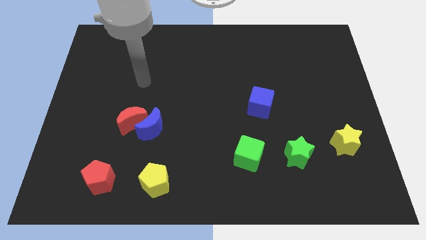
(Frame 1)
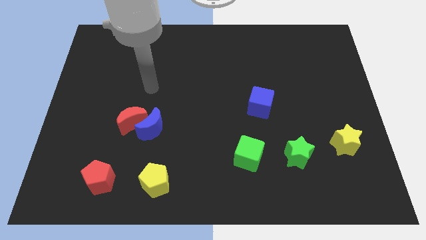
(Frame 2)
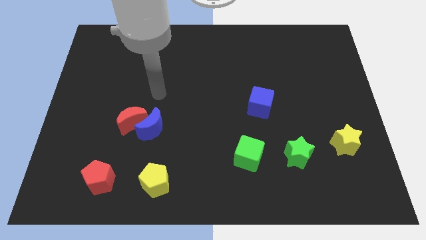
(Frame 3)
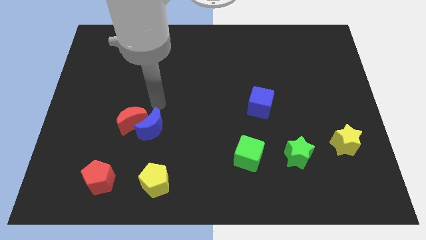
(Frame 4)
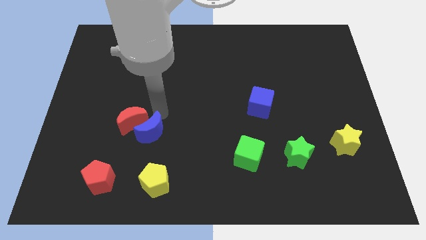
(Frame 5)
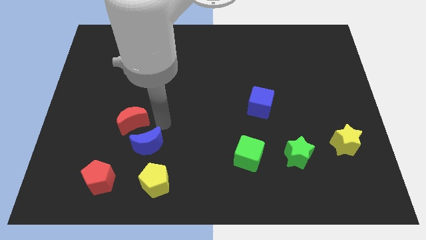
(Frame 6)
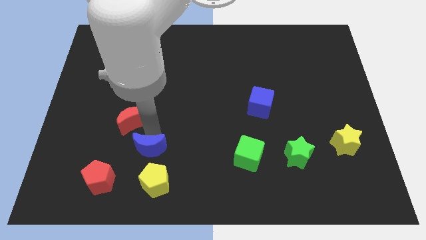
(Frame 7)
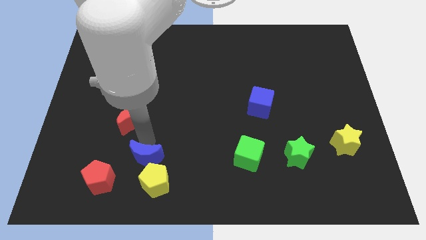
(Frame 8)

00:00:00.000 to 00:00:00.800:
move the red moon away from the blue moon

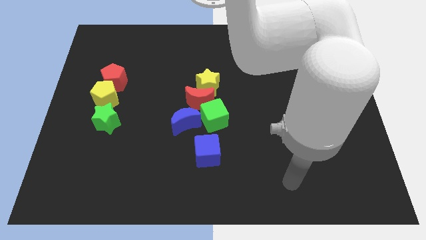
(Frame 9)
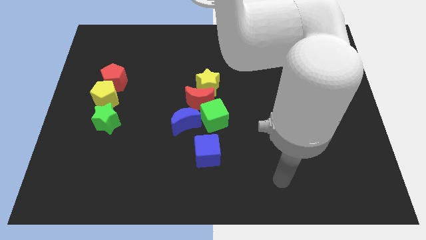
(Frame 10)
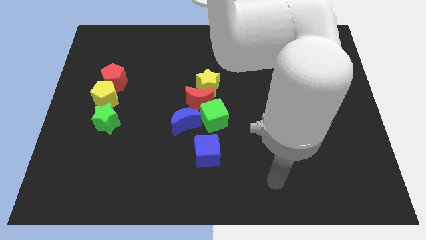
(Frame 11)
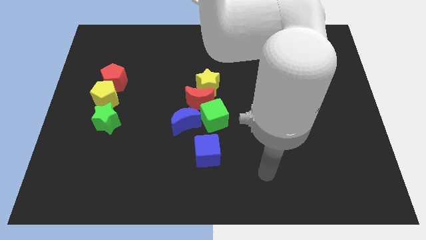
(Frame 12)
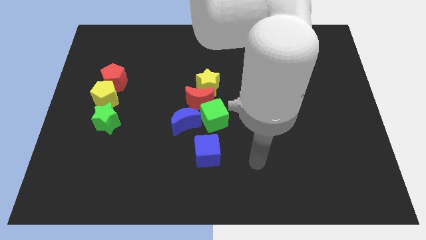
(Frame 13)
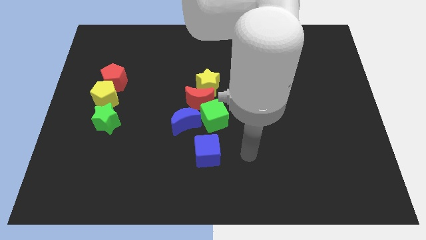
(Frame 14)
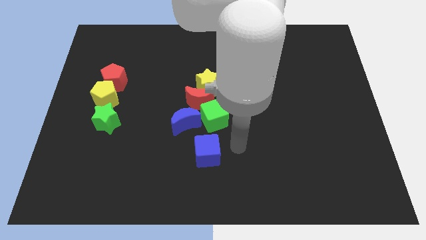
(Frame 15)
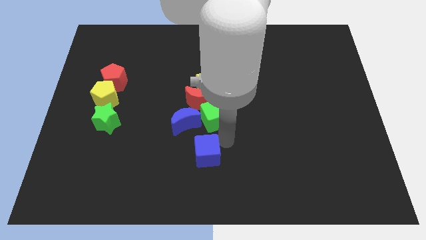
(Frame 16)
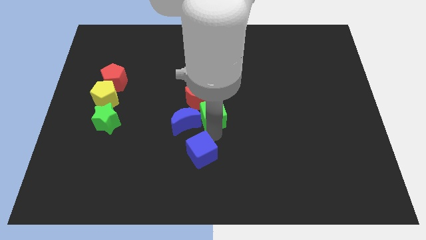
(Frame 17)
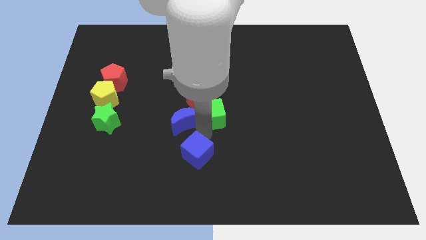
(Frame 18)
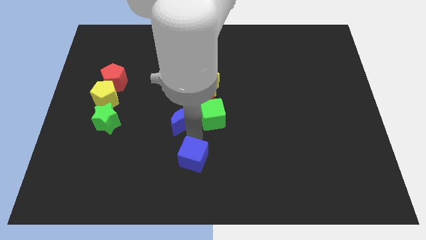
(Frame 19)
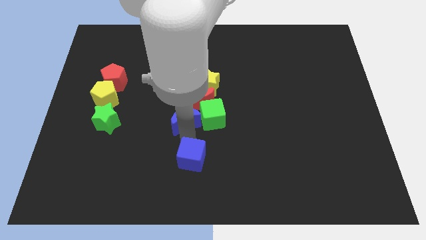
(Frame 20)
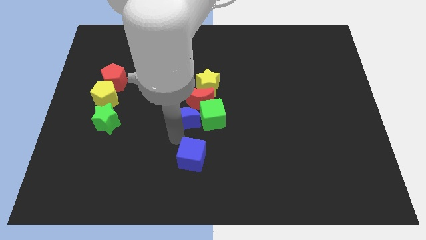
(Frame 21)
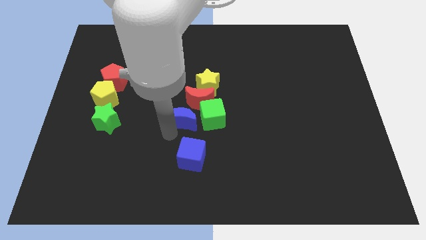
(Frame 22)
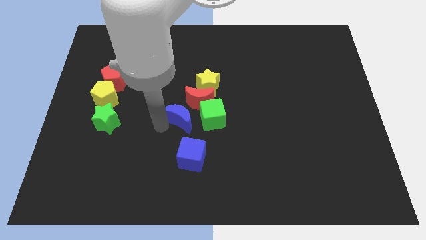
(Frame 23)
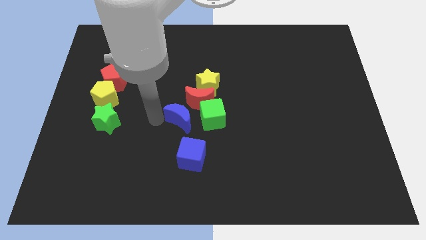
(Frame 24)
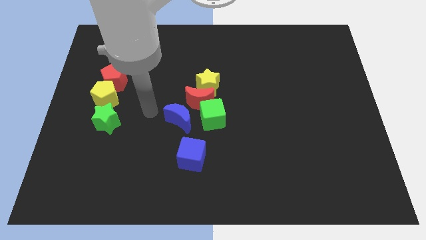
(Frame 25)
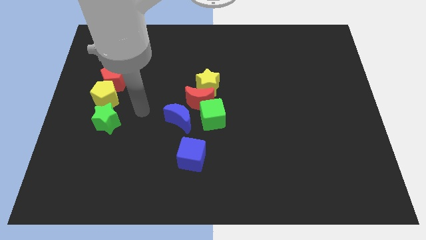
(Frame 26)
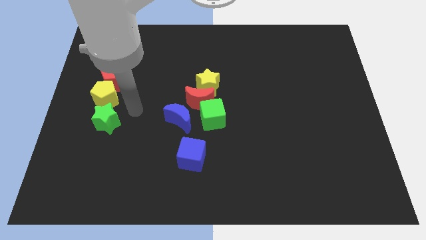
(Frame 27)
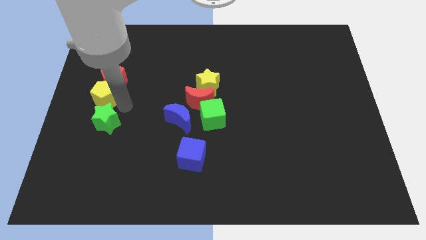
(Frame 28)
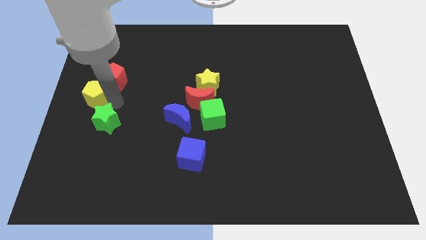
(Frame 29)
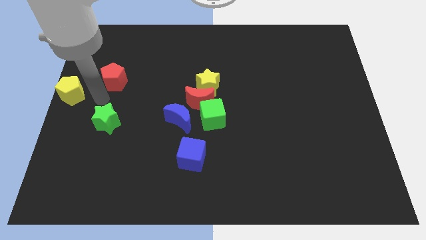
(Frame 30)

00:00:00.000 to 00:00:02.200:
pull the red pentagon apart from the yellow pentagon

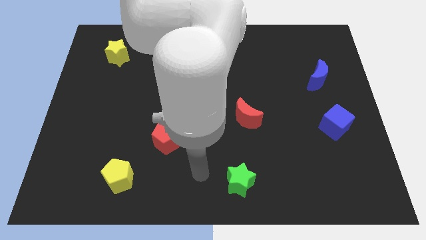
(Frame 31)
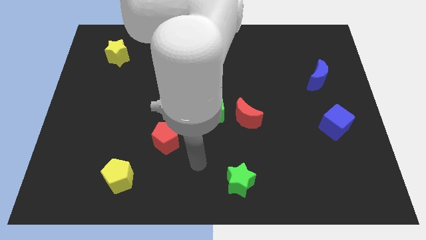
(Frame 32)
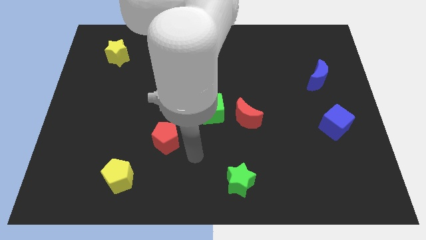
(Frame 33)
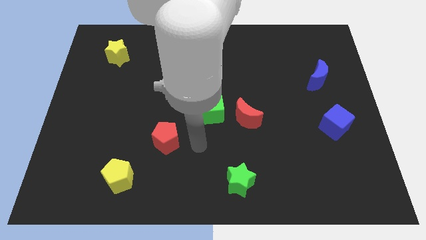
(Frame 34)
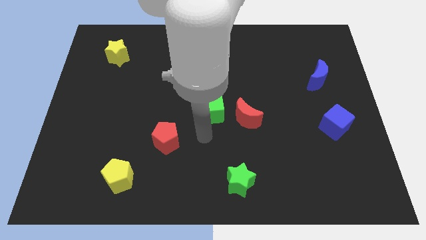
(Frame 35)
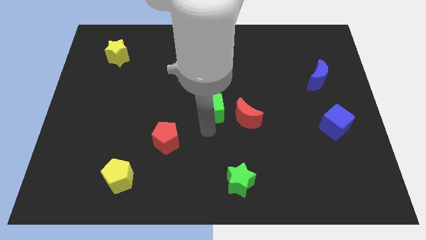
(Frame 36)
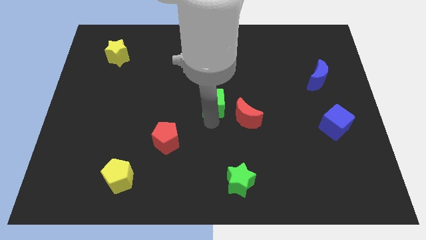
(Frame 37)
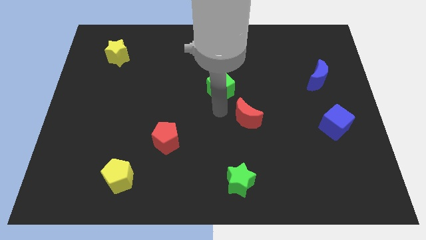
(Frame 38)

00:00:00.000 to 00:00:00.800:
pull the red moon apart from the green cube

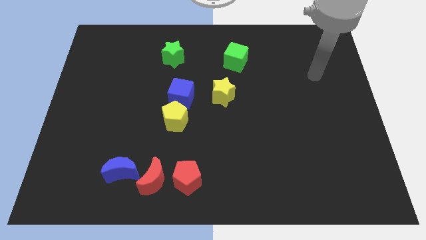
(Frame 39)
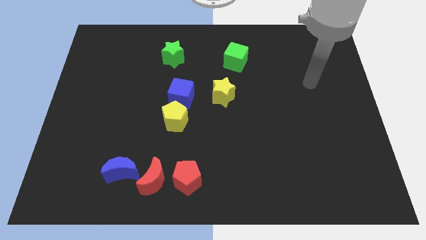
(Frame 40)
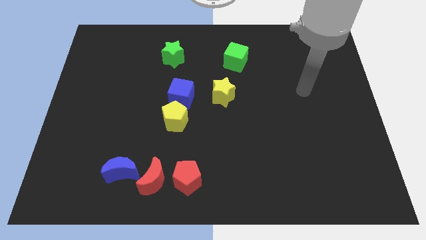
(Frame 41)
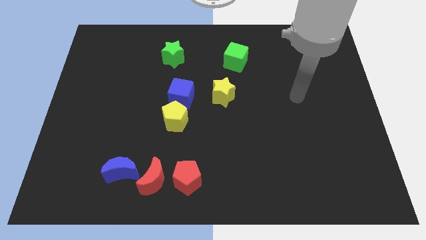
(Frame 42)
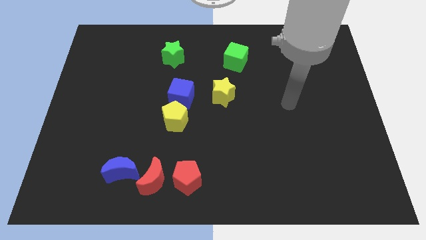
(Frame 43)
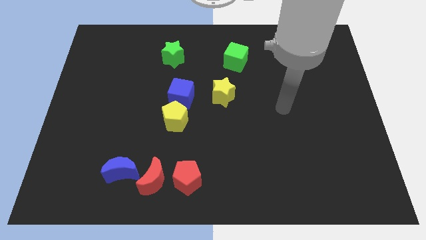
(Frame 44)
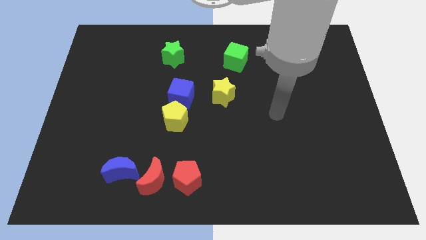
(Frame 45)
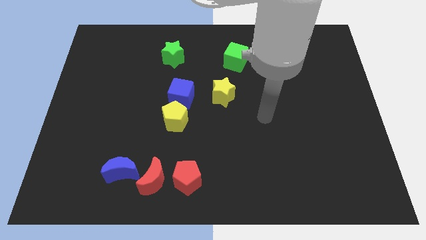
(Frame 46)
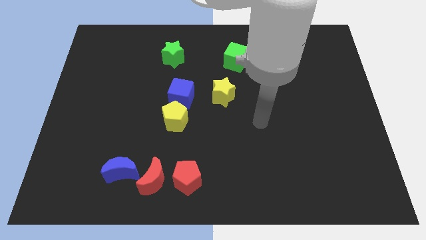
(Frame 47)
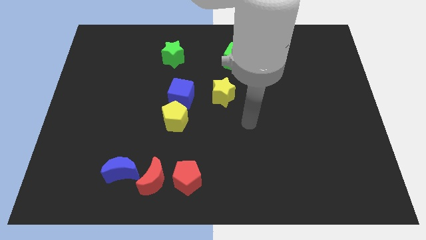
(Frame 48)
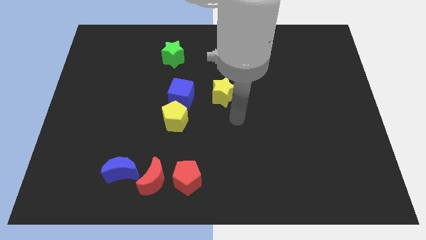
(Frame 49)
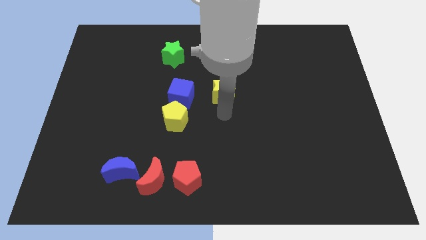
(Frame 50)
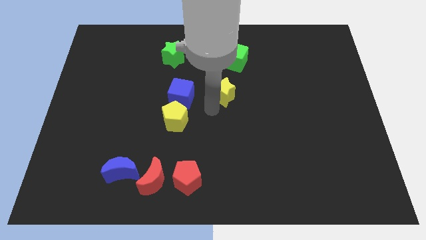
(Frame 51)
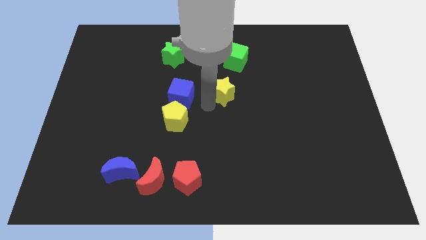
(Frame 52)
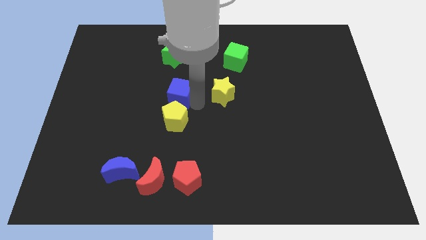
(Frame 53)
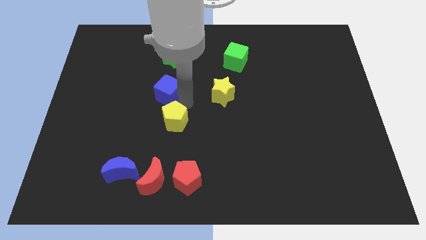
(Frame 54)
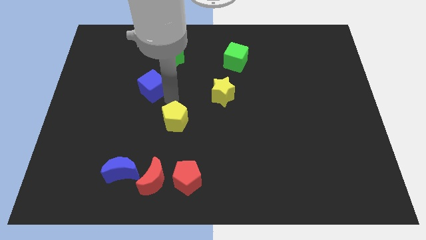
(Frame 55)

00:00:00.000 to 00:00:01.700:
pull the yellow pentagon apart from the blue cube

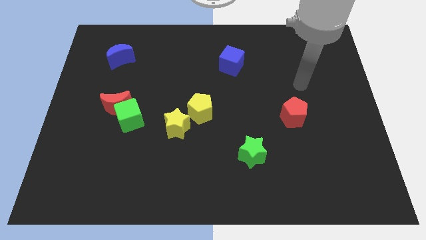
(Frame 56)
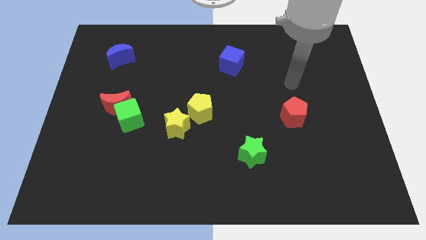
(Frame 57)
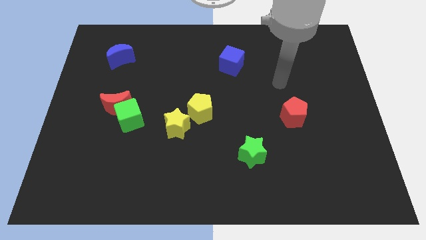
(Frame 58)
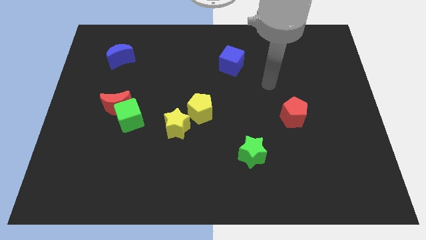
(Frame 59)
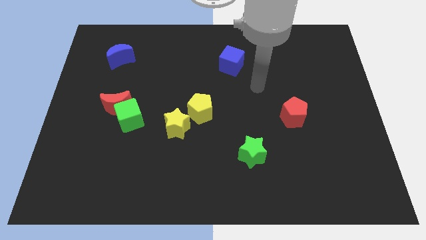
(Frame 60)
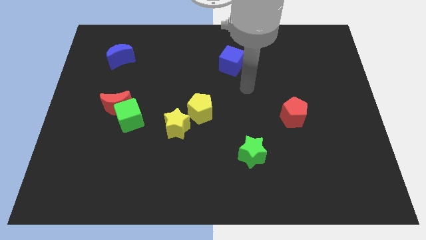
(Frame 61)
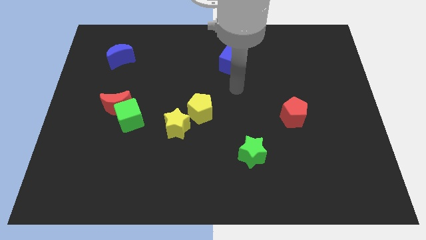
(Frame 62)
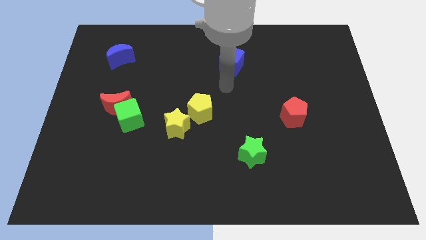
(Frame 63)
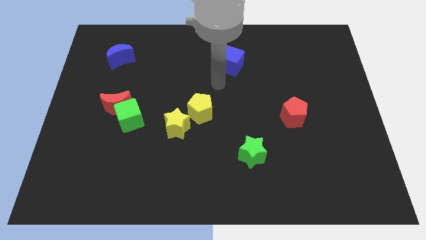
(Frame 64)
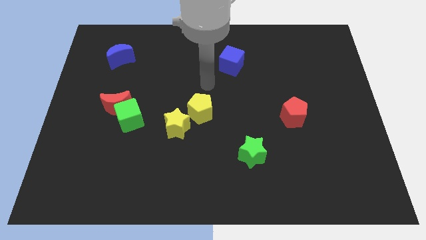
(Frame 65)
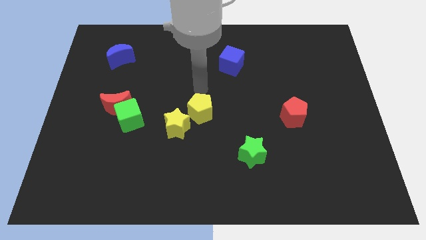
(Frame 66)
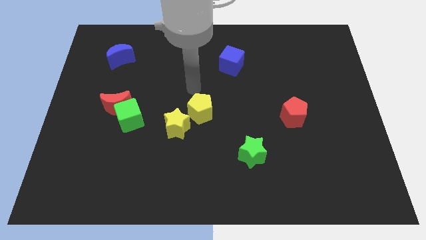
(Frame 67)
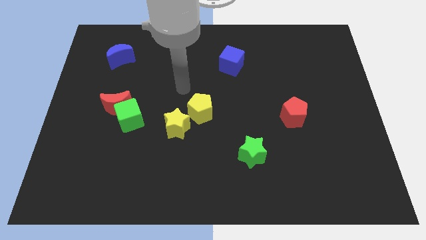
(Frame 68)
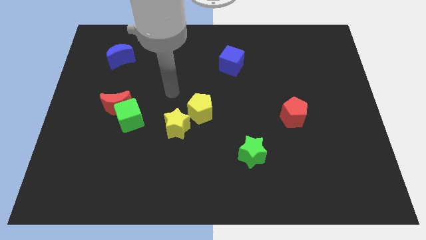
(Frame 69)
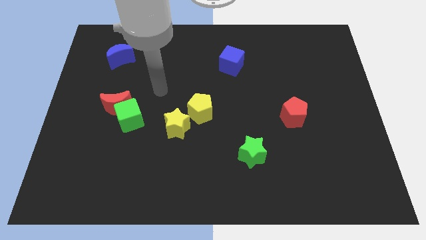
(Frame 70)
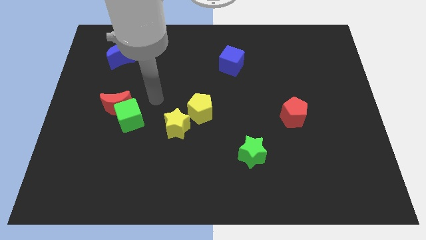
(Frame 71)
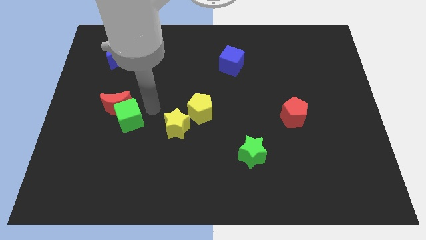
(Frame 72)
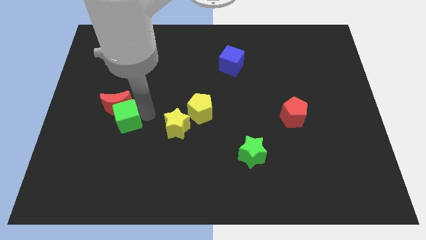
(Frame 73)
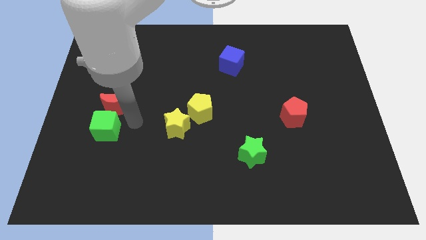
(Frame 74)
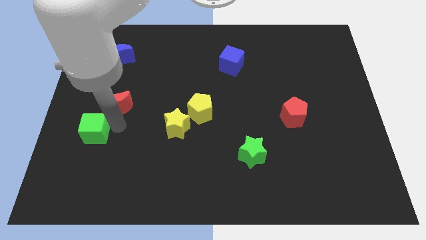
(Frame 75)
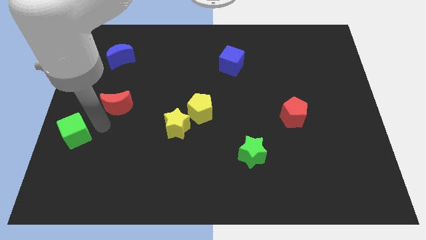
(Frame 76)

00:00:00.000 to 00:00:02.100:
move the red moon away from the green cube

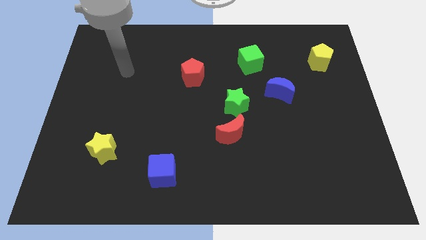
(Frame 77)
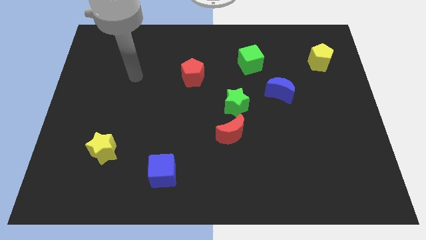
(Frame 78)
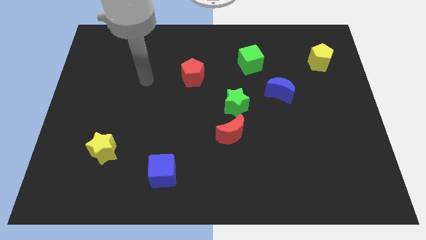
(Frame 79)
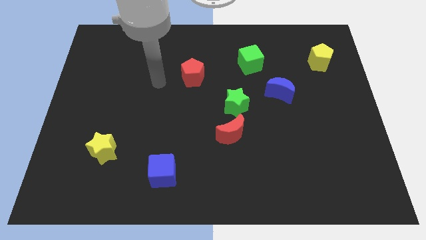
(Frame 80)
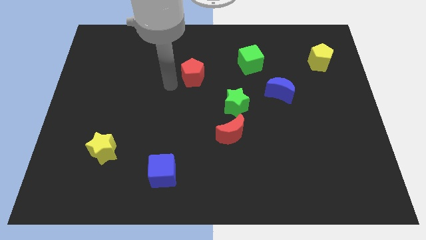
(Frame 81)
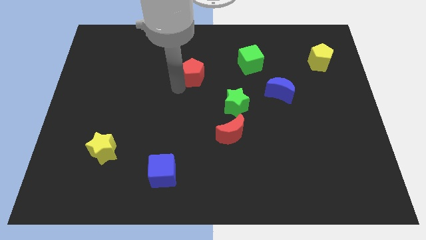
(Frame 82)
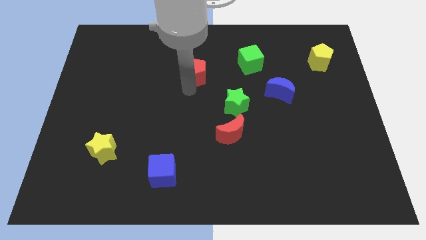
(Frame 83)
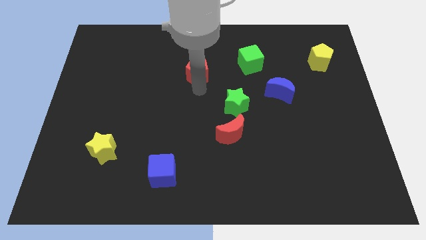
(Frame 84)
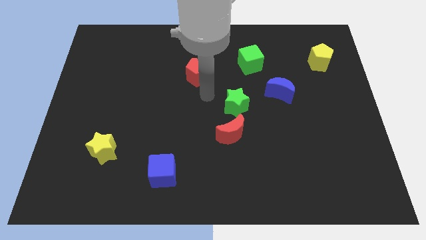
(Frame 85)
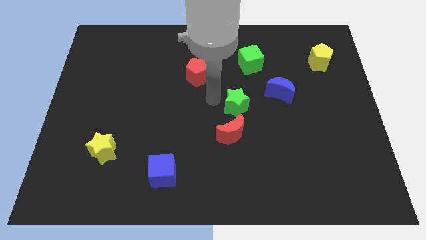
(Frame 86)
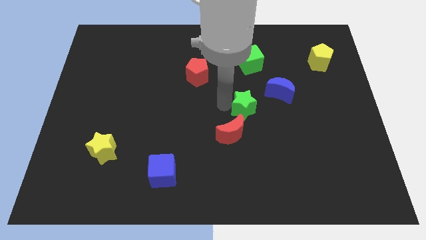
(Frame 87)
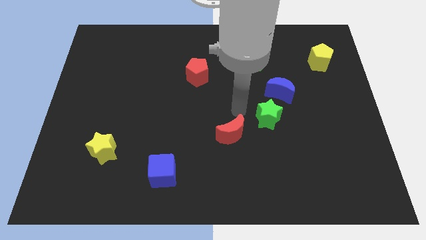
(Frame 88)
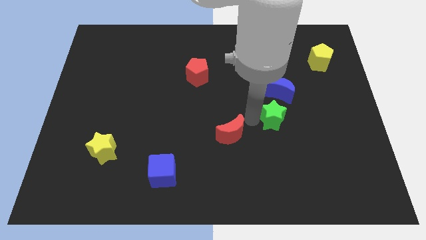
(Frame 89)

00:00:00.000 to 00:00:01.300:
move the red moon away from the green star

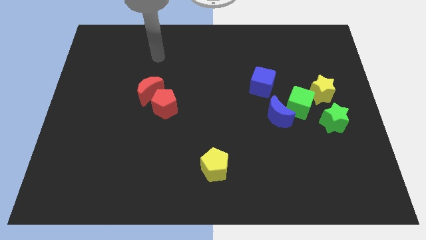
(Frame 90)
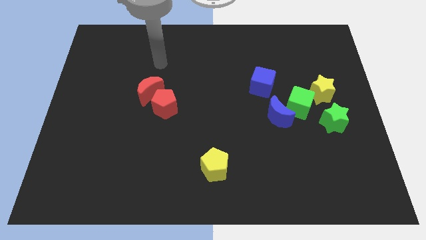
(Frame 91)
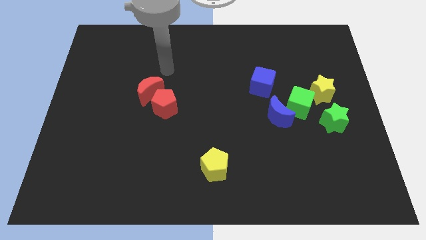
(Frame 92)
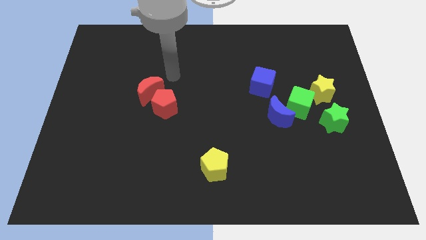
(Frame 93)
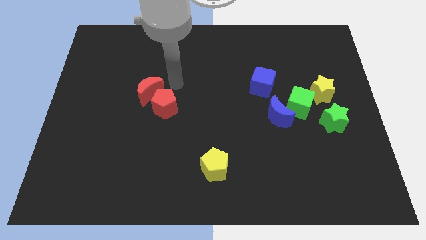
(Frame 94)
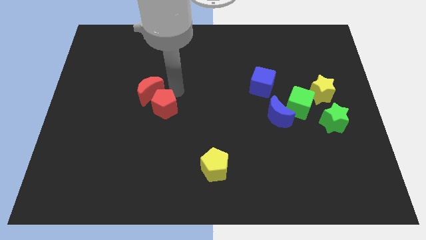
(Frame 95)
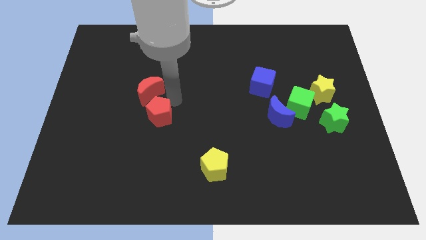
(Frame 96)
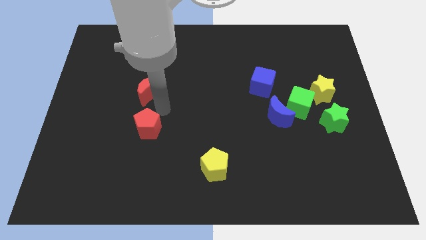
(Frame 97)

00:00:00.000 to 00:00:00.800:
pull the red moon apart from the red pentagon
